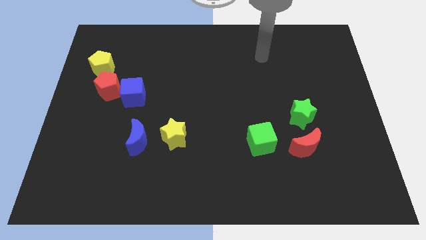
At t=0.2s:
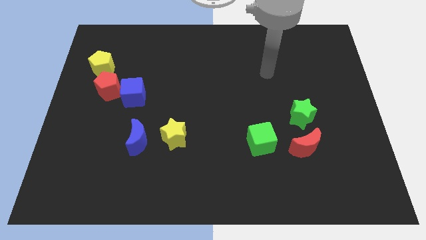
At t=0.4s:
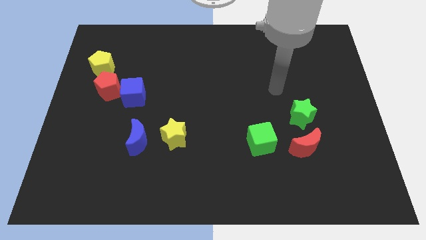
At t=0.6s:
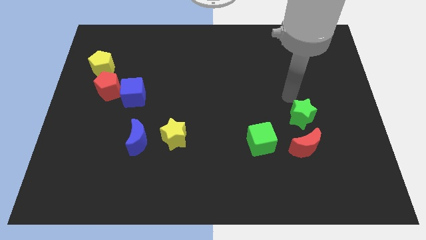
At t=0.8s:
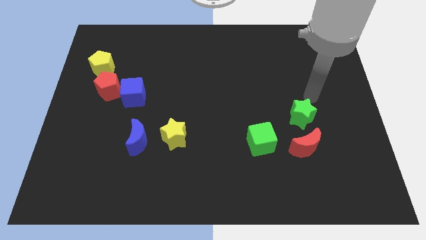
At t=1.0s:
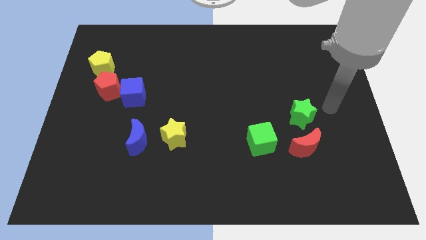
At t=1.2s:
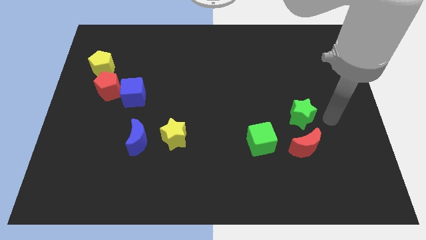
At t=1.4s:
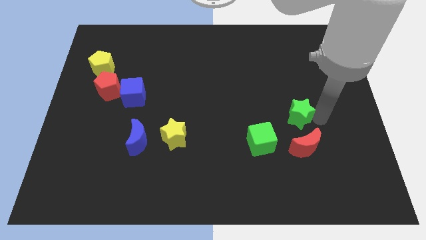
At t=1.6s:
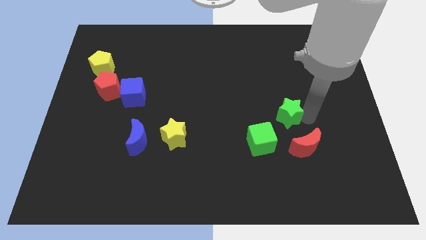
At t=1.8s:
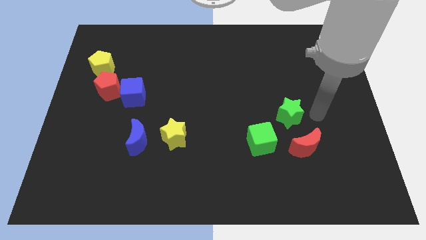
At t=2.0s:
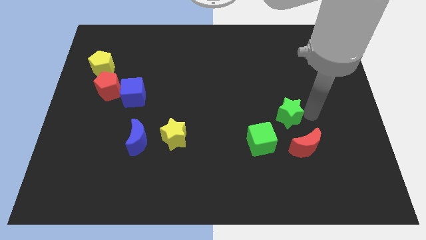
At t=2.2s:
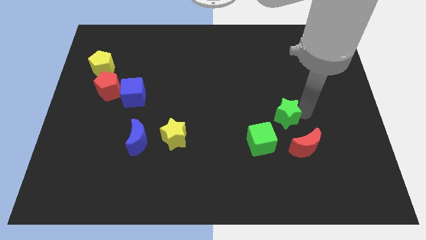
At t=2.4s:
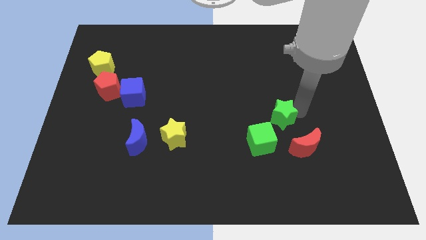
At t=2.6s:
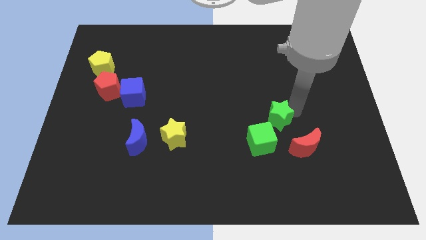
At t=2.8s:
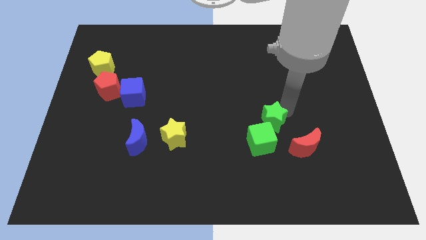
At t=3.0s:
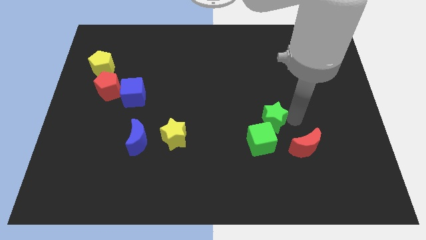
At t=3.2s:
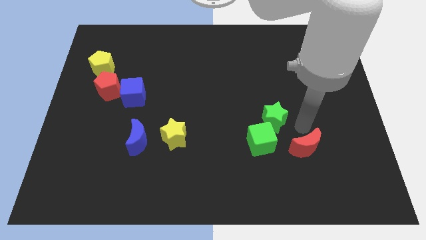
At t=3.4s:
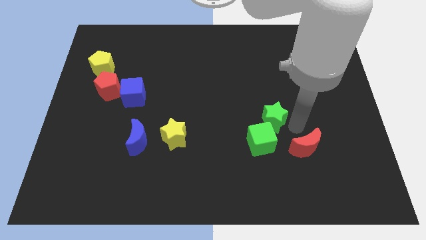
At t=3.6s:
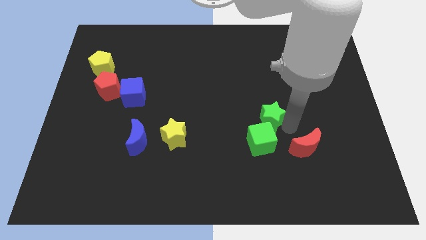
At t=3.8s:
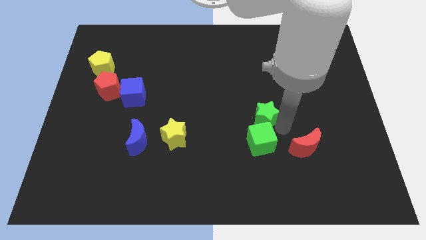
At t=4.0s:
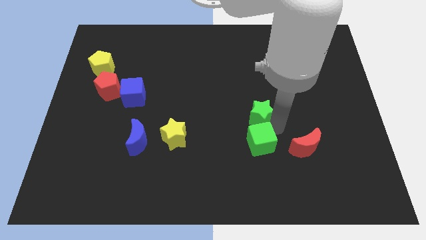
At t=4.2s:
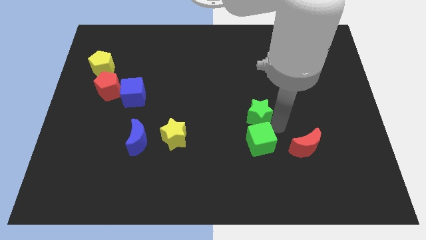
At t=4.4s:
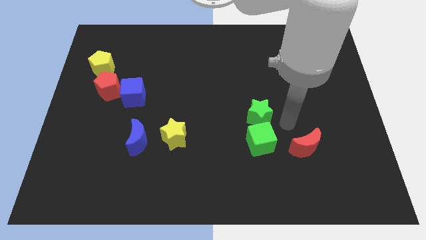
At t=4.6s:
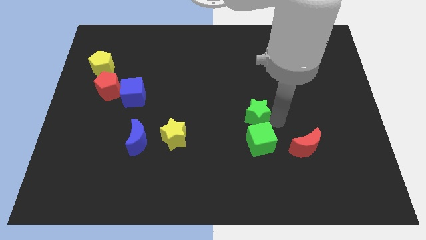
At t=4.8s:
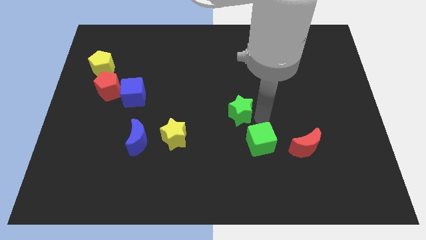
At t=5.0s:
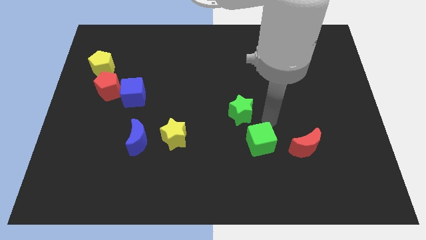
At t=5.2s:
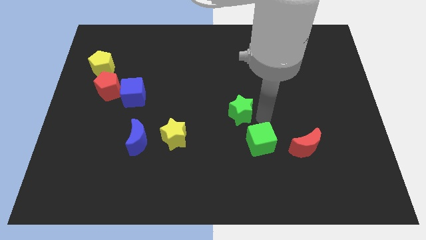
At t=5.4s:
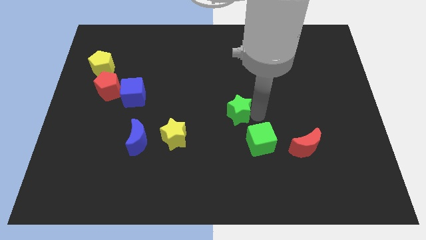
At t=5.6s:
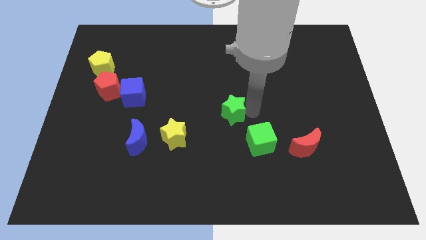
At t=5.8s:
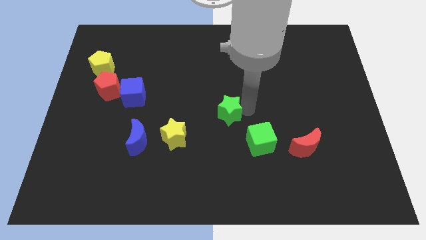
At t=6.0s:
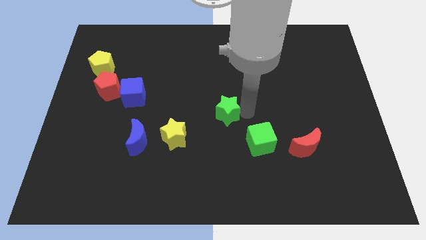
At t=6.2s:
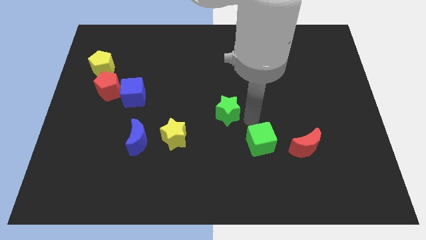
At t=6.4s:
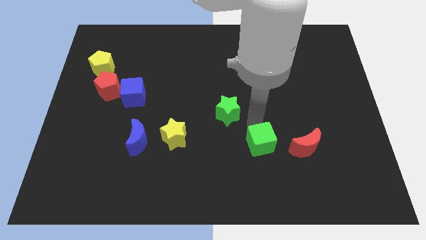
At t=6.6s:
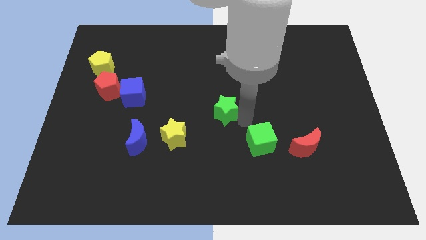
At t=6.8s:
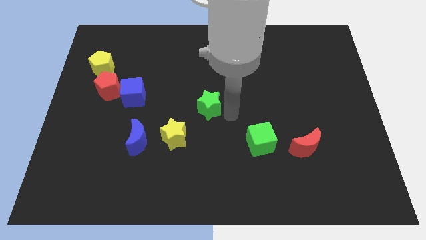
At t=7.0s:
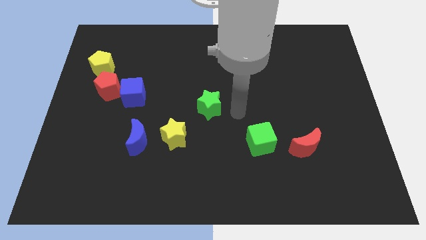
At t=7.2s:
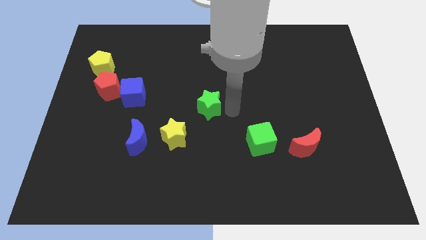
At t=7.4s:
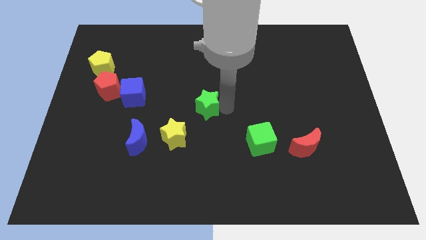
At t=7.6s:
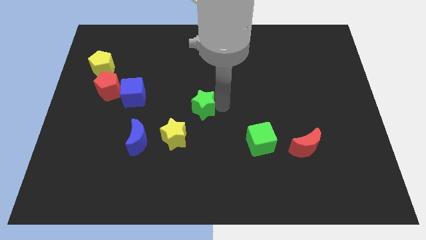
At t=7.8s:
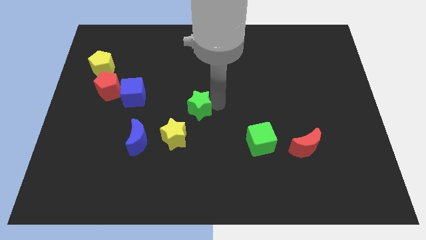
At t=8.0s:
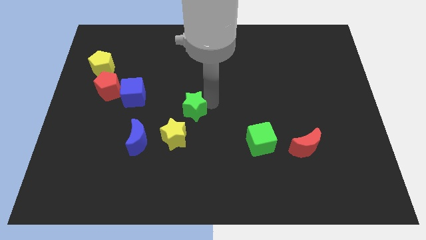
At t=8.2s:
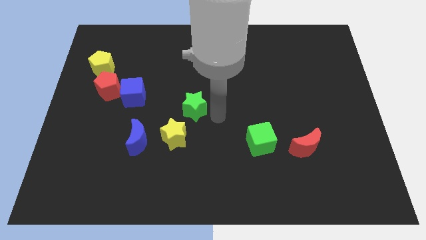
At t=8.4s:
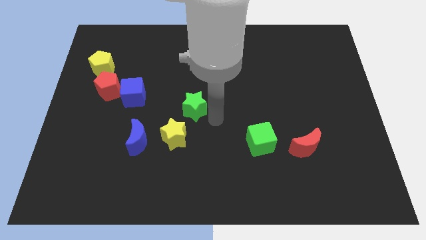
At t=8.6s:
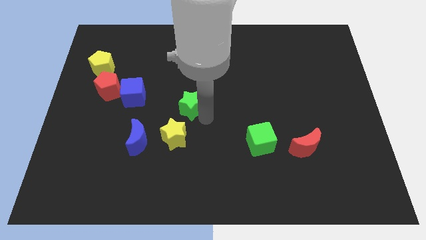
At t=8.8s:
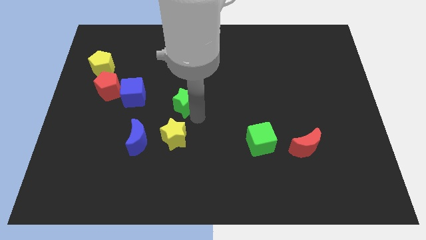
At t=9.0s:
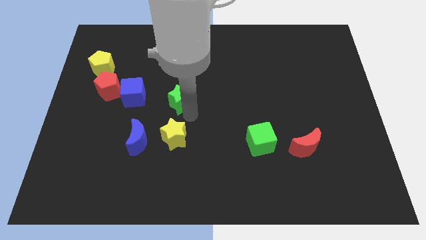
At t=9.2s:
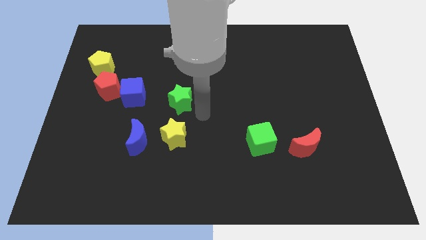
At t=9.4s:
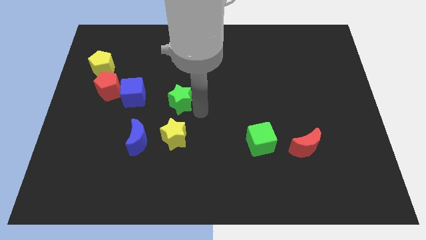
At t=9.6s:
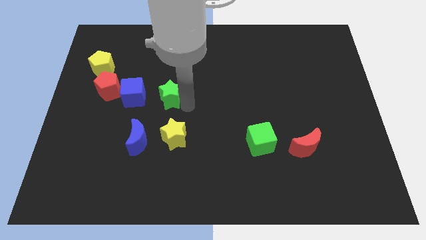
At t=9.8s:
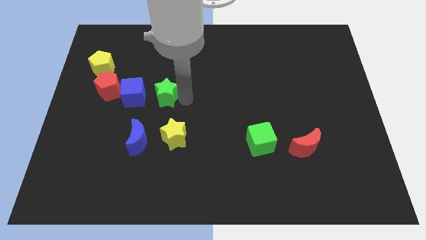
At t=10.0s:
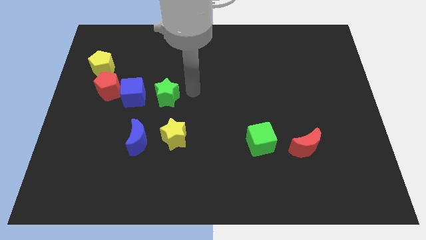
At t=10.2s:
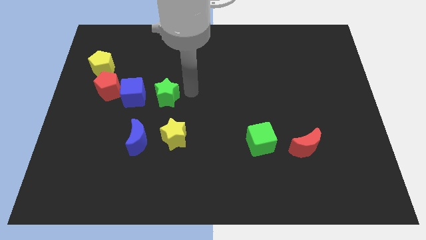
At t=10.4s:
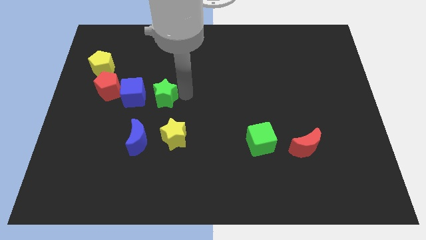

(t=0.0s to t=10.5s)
push the green star above the blue moon

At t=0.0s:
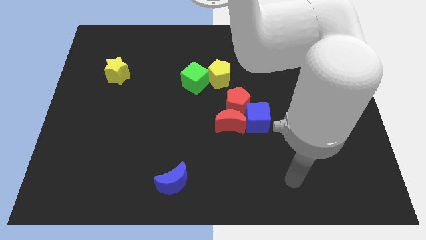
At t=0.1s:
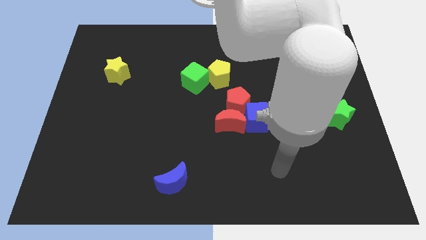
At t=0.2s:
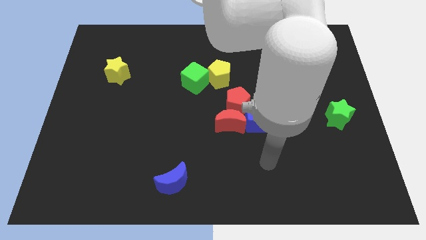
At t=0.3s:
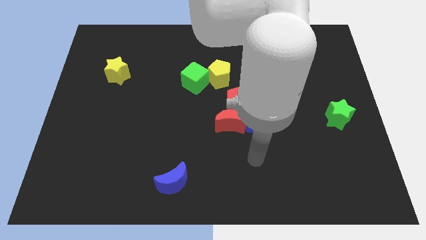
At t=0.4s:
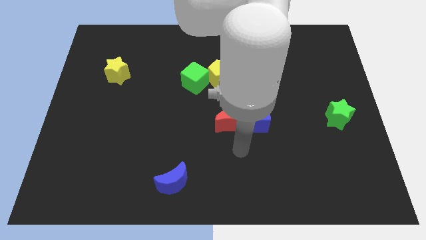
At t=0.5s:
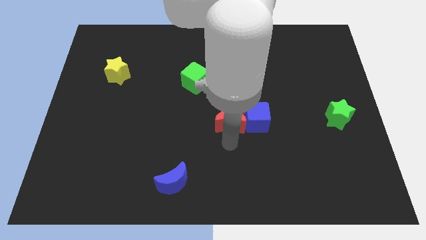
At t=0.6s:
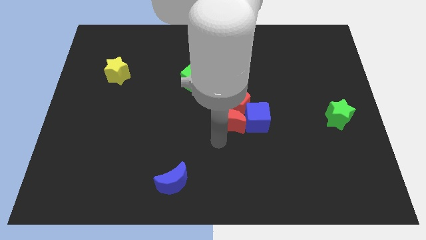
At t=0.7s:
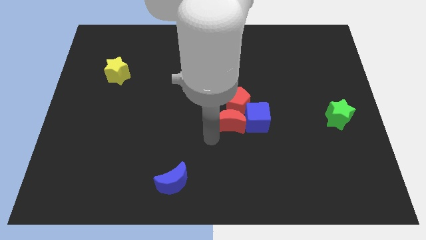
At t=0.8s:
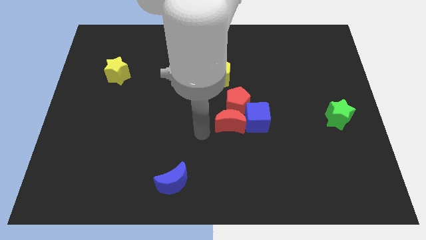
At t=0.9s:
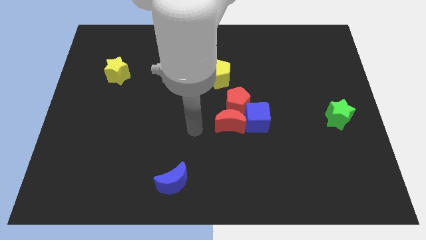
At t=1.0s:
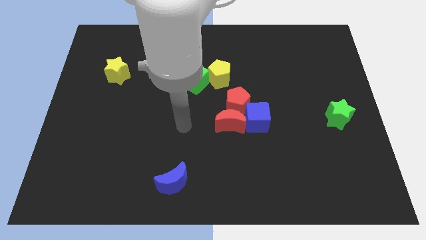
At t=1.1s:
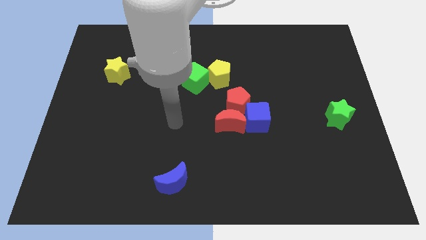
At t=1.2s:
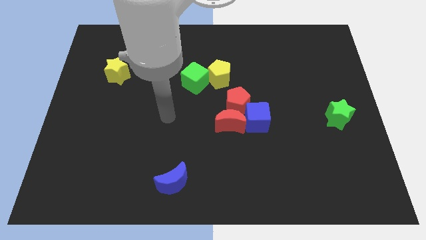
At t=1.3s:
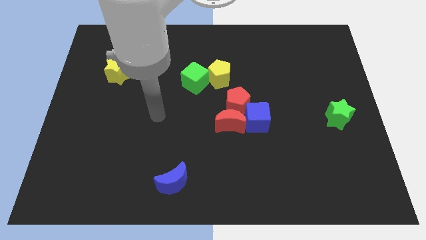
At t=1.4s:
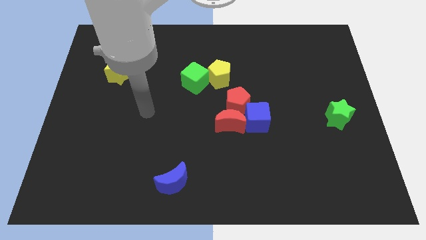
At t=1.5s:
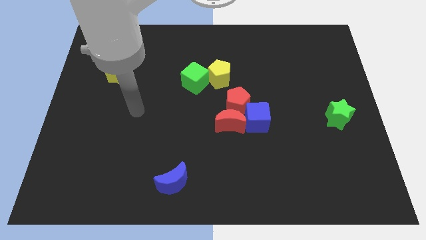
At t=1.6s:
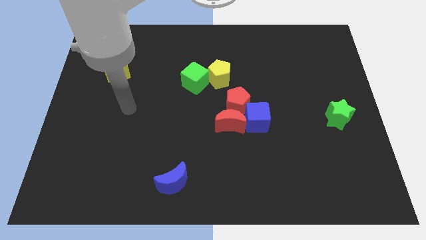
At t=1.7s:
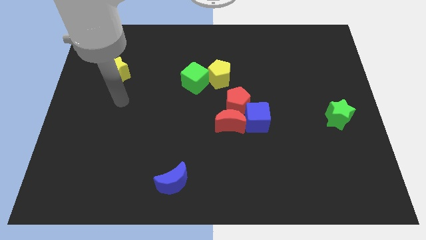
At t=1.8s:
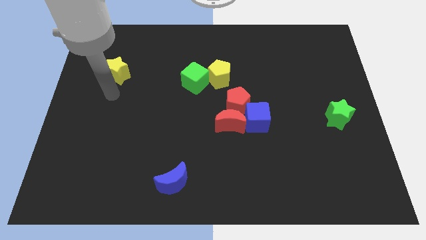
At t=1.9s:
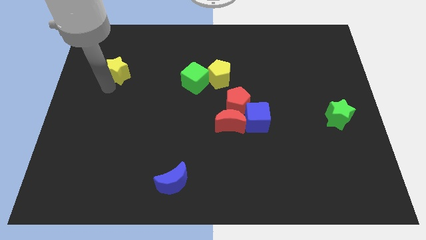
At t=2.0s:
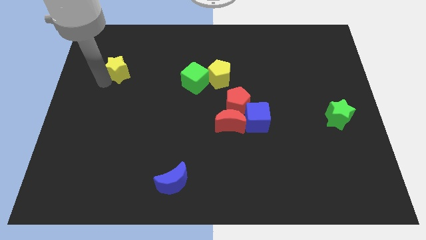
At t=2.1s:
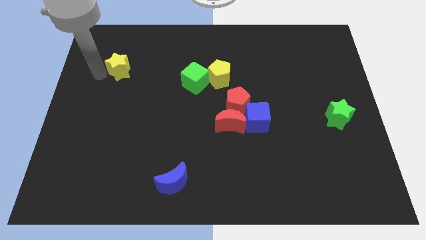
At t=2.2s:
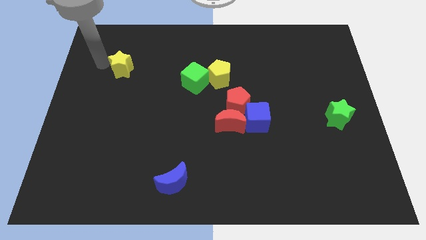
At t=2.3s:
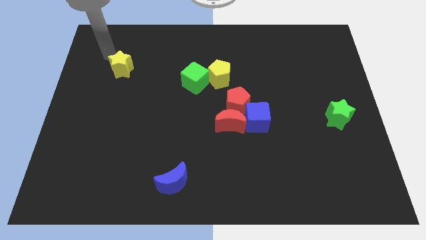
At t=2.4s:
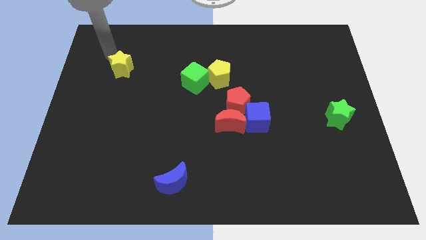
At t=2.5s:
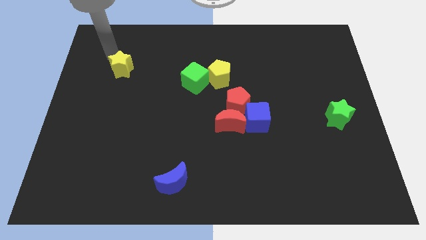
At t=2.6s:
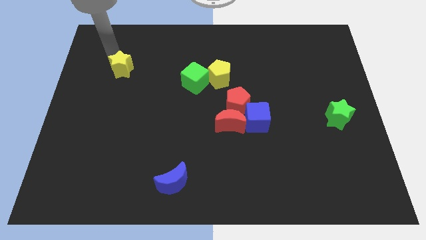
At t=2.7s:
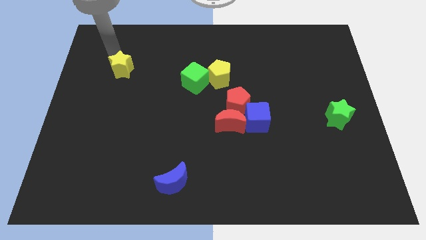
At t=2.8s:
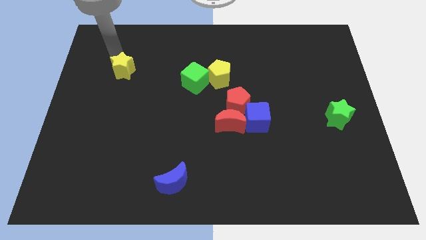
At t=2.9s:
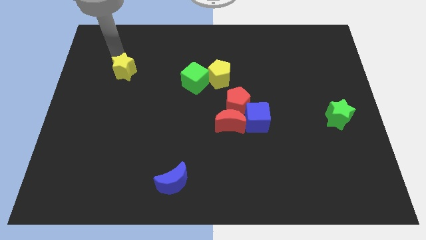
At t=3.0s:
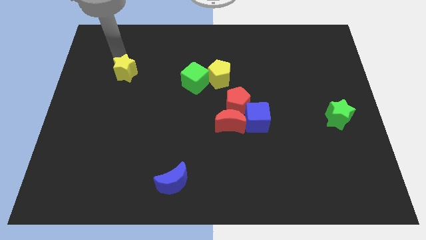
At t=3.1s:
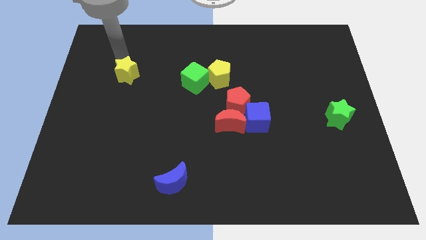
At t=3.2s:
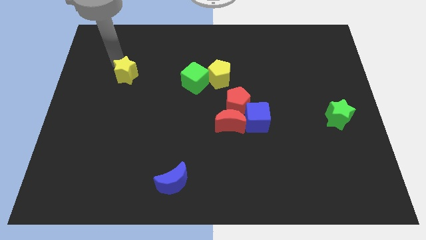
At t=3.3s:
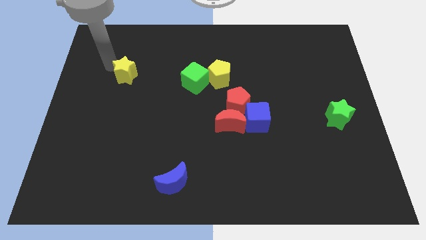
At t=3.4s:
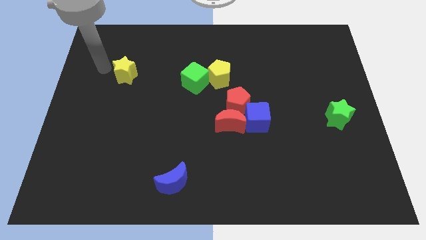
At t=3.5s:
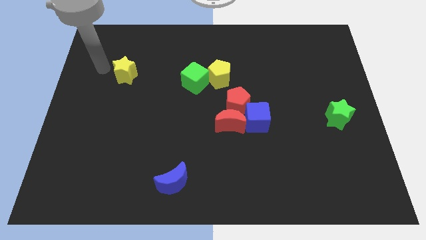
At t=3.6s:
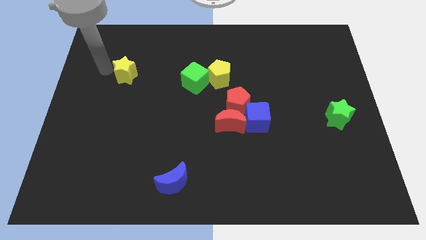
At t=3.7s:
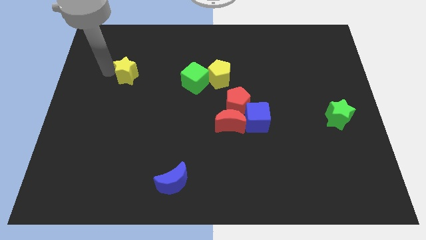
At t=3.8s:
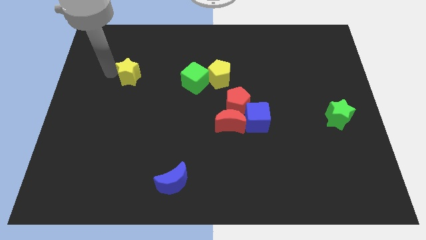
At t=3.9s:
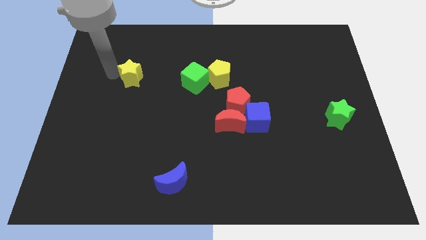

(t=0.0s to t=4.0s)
put the yellow star left of the green cube
